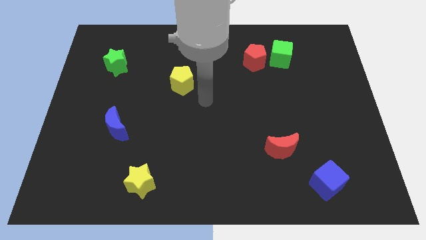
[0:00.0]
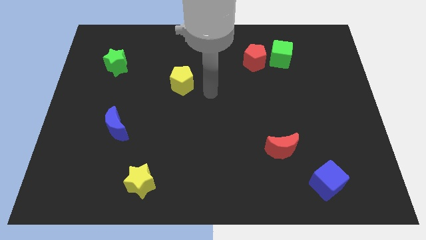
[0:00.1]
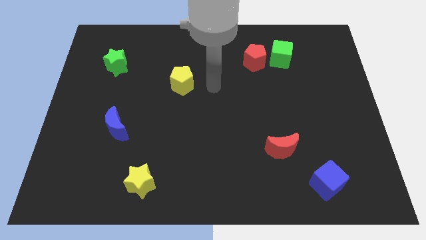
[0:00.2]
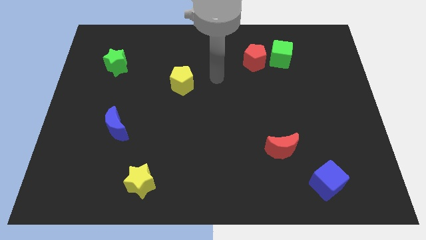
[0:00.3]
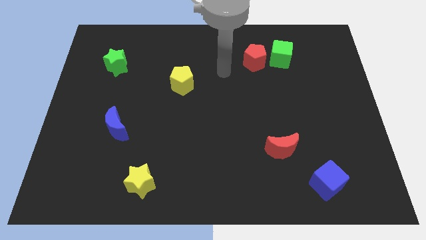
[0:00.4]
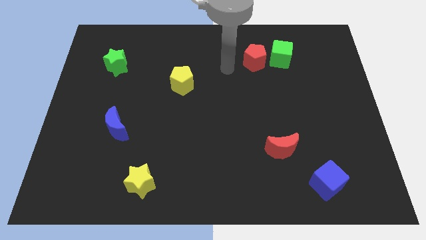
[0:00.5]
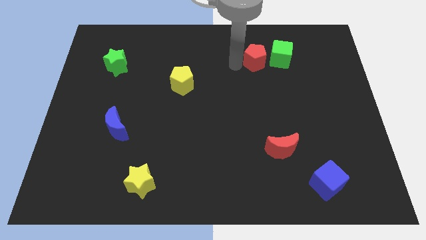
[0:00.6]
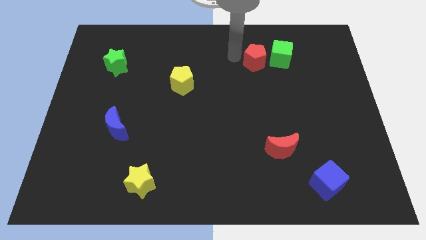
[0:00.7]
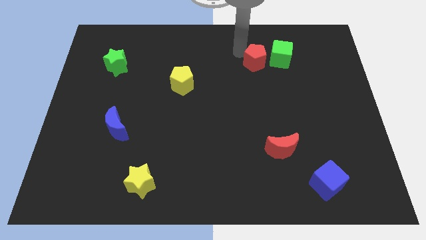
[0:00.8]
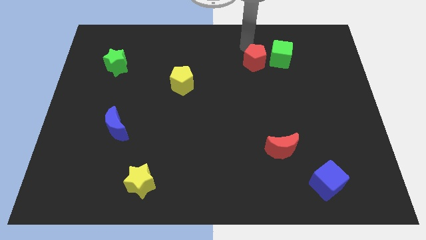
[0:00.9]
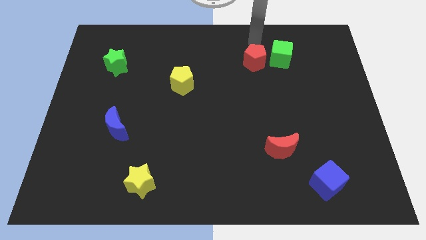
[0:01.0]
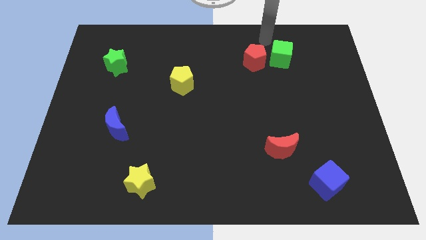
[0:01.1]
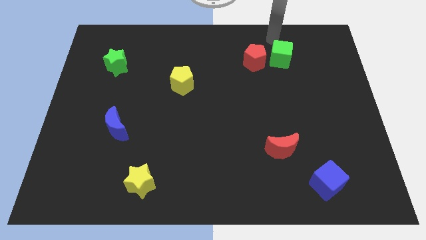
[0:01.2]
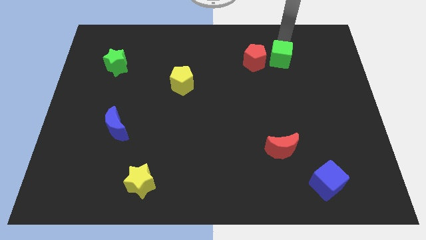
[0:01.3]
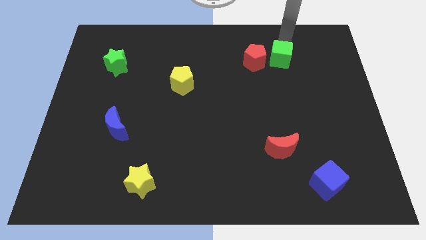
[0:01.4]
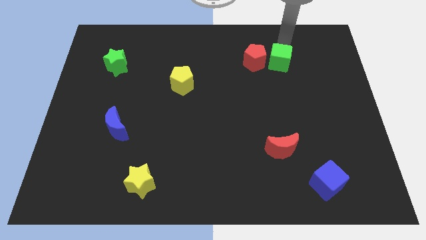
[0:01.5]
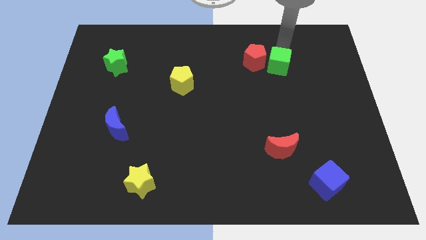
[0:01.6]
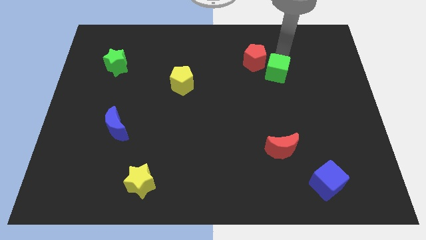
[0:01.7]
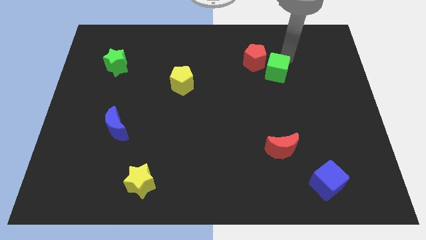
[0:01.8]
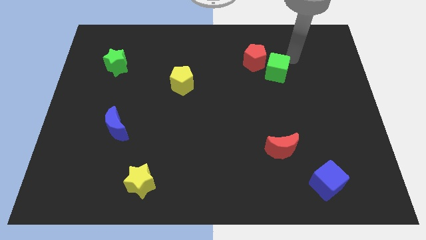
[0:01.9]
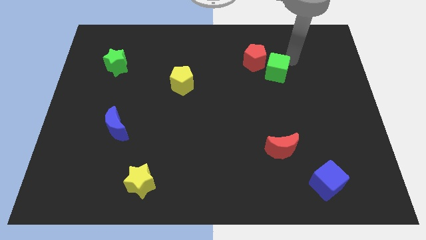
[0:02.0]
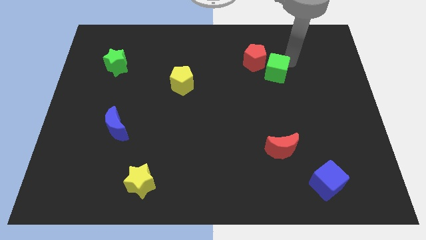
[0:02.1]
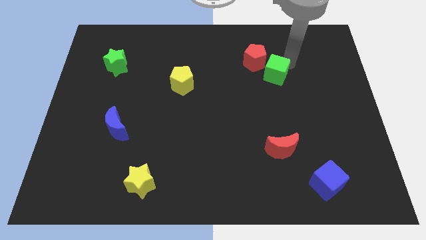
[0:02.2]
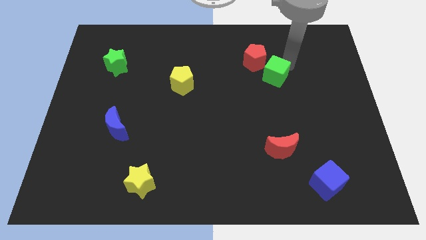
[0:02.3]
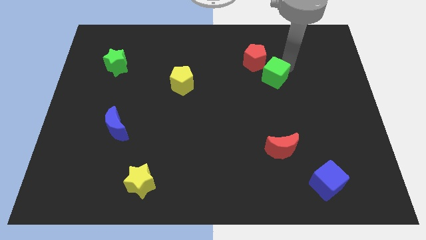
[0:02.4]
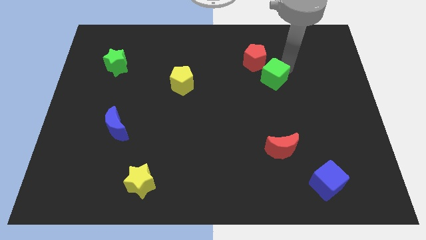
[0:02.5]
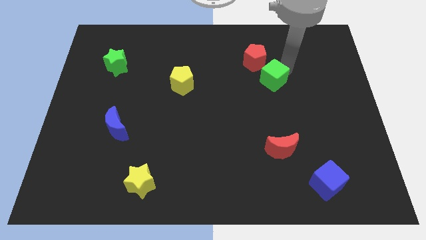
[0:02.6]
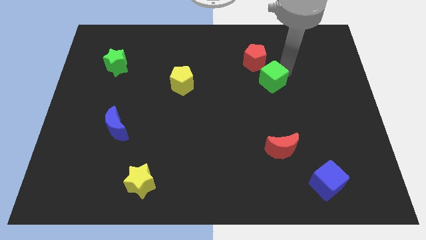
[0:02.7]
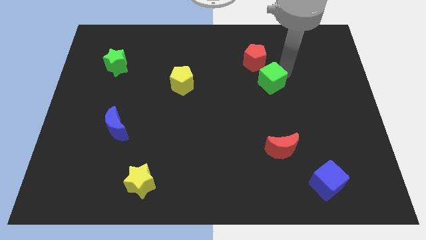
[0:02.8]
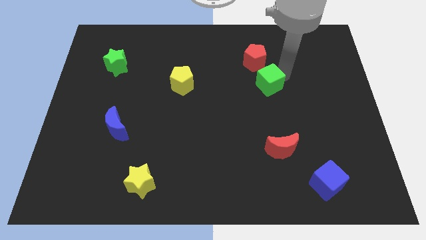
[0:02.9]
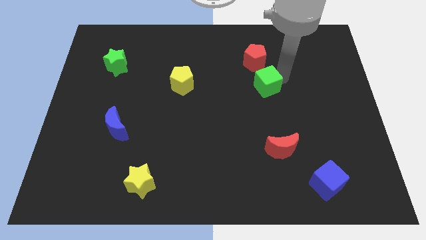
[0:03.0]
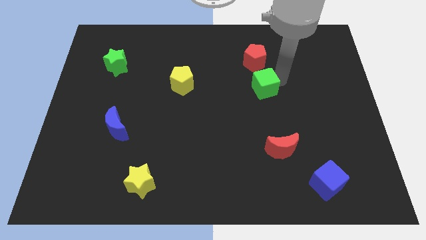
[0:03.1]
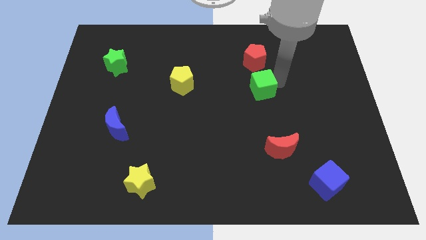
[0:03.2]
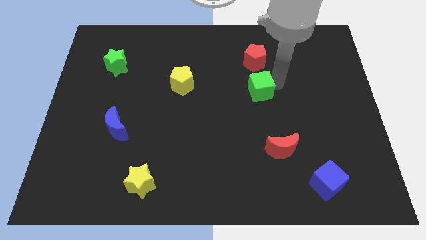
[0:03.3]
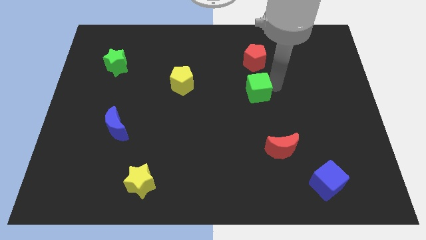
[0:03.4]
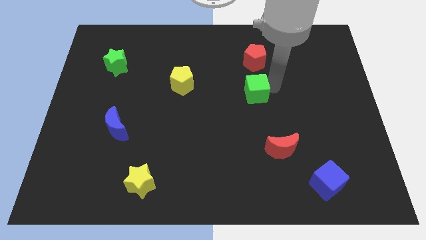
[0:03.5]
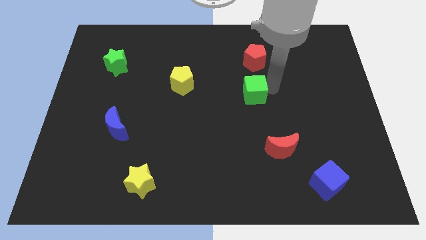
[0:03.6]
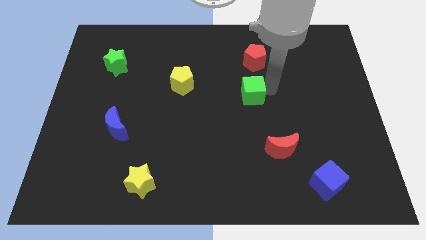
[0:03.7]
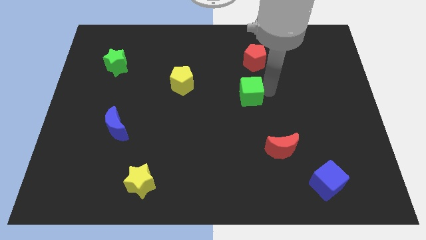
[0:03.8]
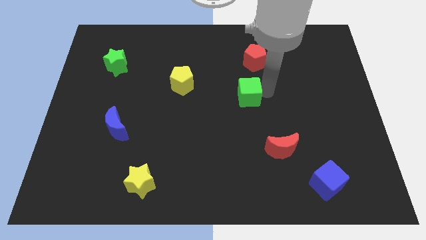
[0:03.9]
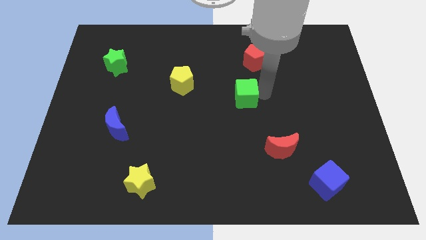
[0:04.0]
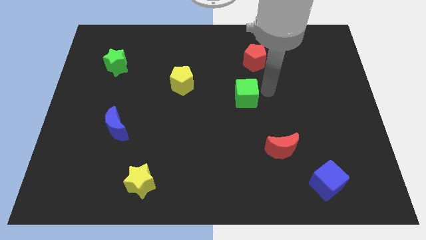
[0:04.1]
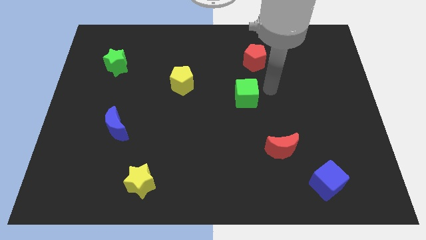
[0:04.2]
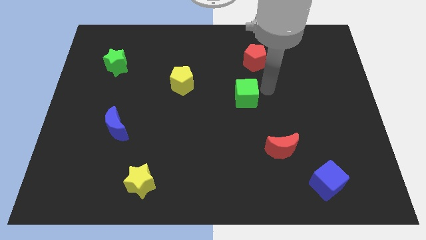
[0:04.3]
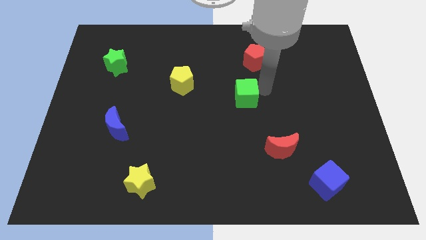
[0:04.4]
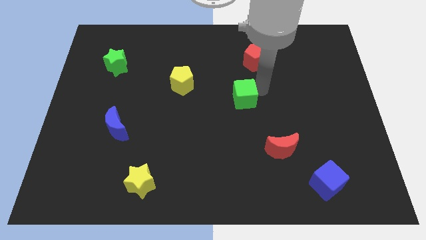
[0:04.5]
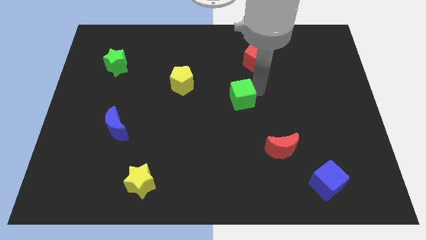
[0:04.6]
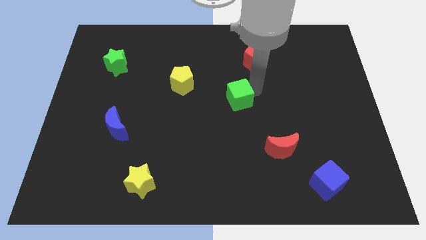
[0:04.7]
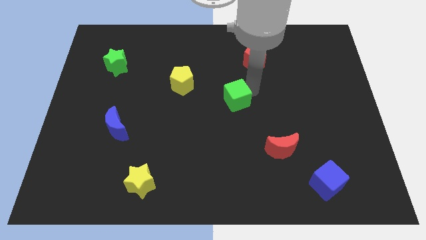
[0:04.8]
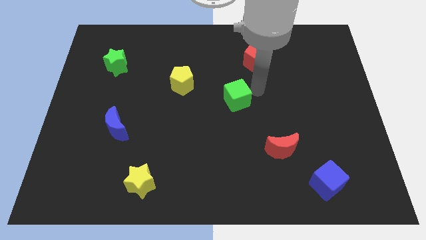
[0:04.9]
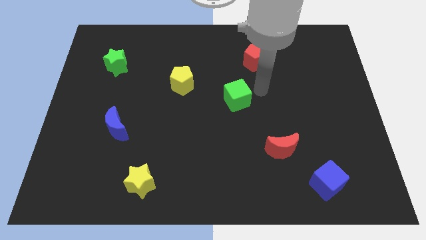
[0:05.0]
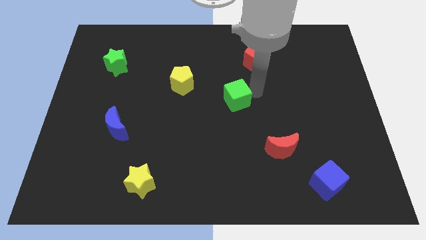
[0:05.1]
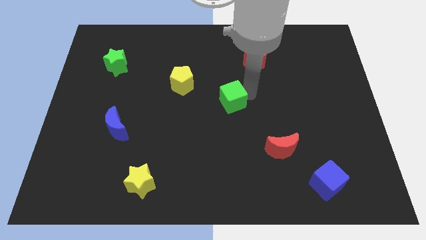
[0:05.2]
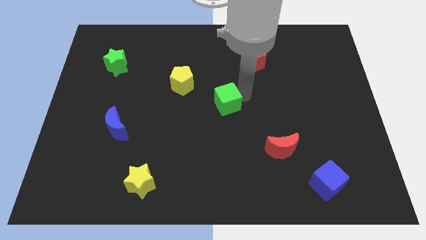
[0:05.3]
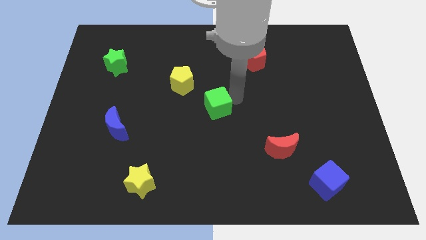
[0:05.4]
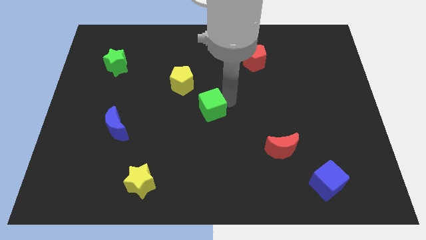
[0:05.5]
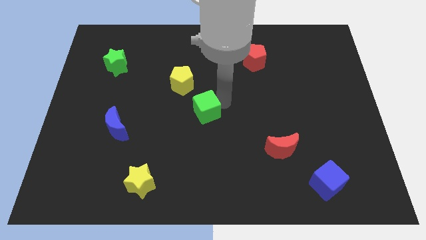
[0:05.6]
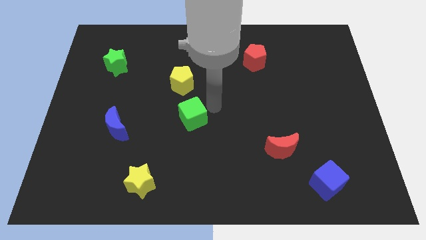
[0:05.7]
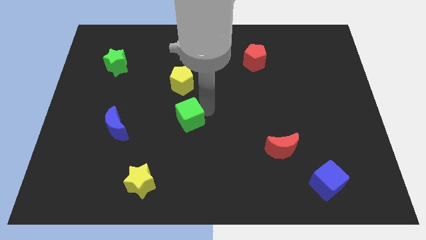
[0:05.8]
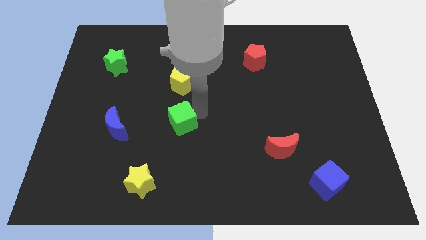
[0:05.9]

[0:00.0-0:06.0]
put the green cube just right of the blue moon

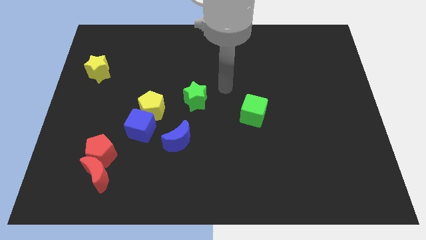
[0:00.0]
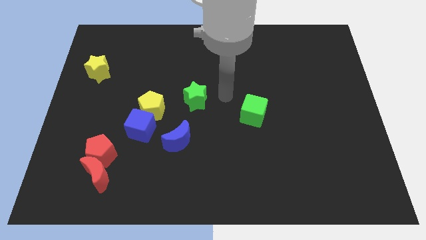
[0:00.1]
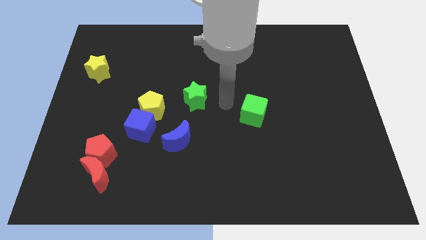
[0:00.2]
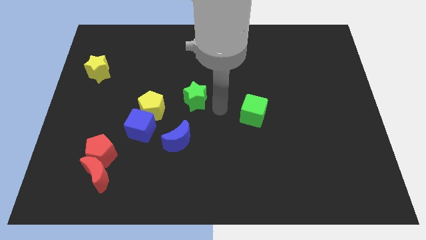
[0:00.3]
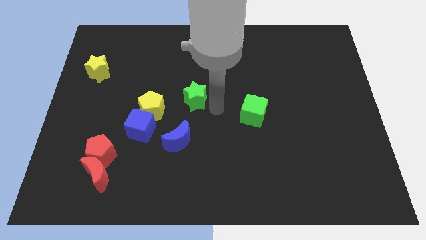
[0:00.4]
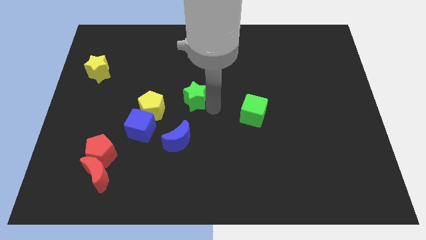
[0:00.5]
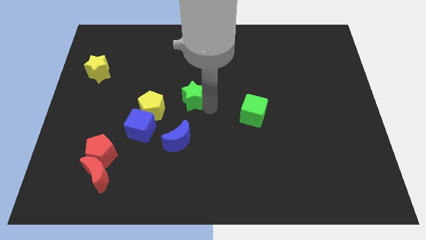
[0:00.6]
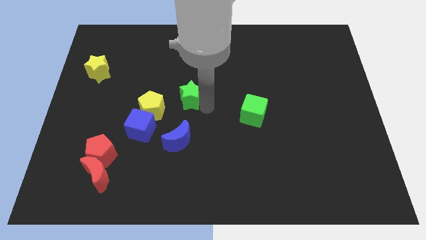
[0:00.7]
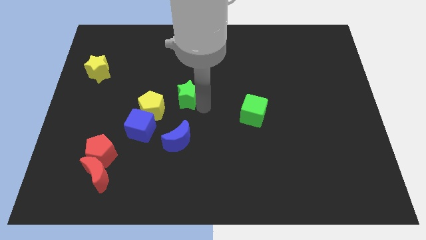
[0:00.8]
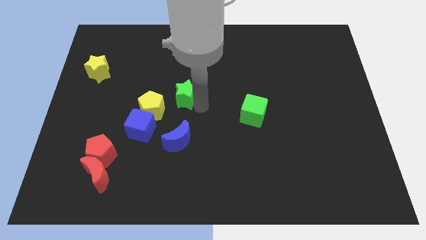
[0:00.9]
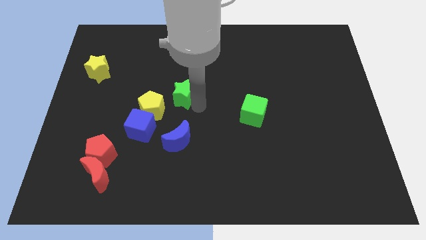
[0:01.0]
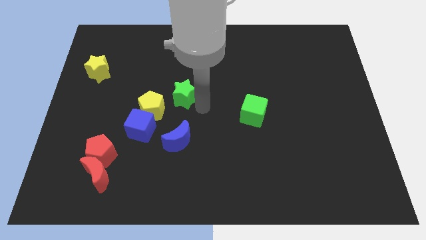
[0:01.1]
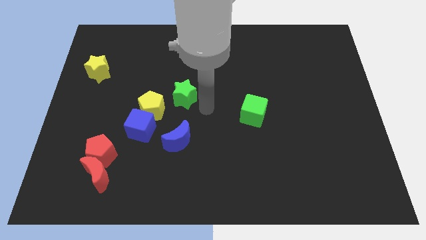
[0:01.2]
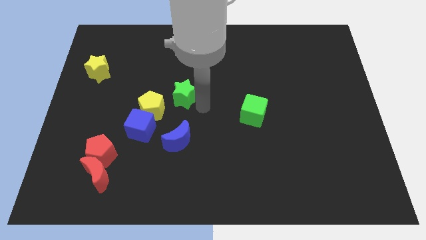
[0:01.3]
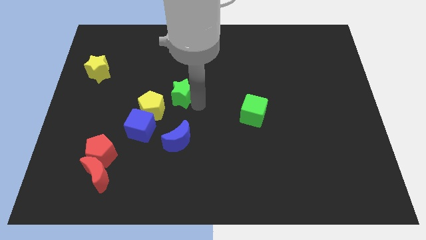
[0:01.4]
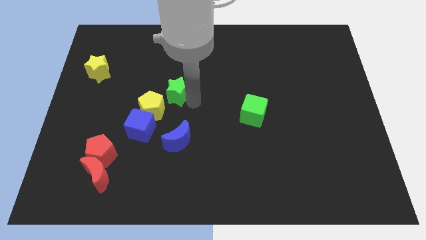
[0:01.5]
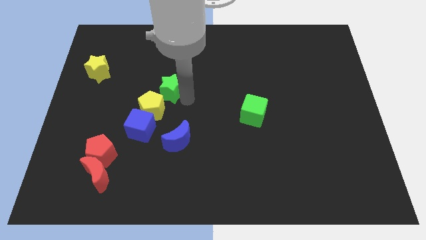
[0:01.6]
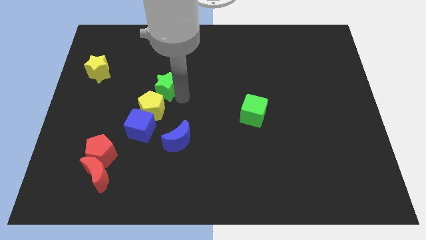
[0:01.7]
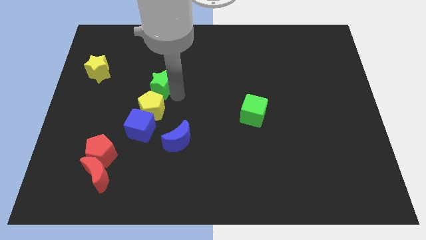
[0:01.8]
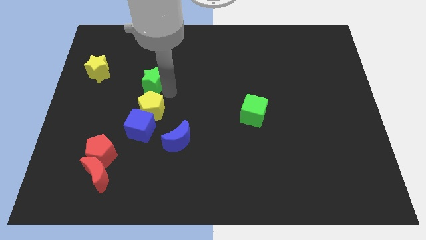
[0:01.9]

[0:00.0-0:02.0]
slide the green star to the right side of the yellow star
